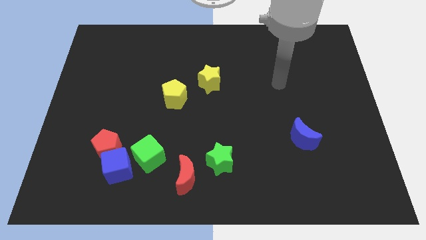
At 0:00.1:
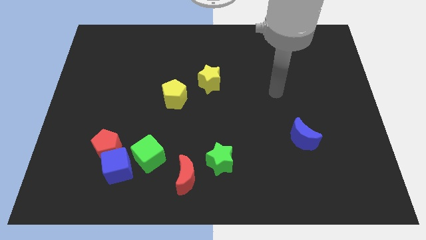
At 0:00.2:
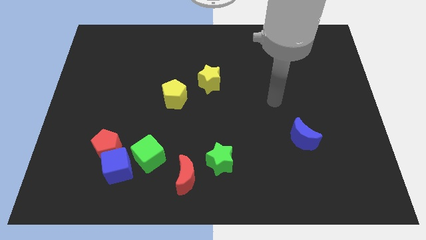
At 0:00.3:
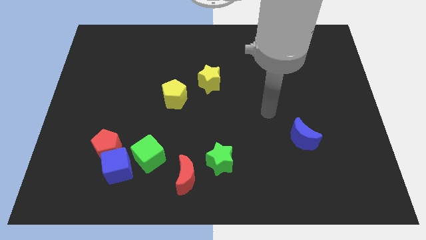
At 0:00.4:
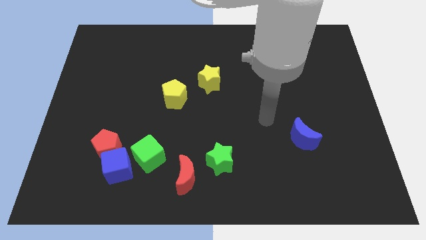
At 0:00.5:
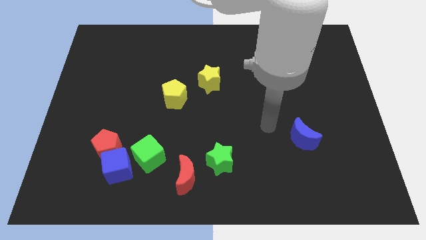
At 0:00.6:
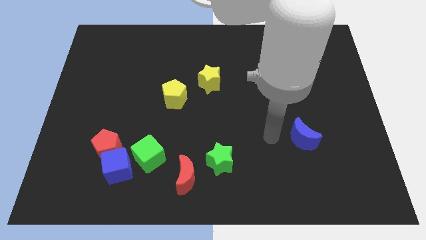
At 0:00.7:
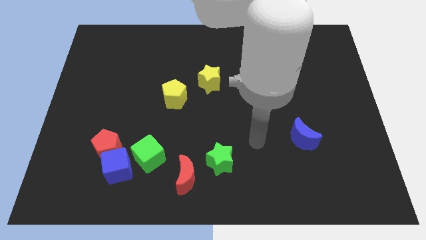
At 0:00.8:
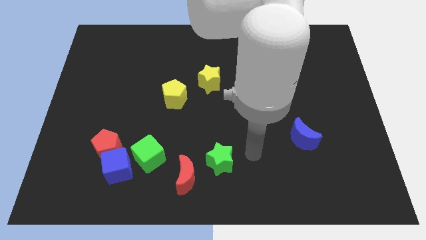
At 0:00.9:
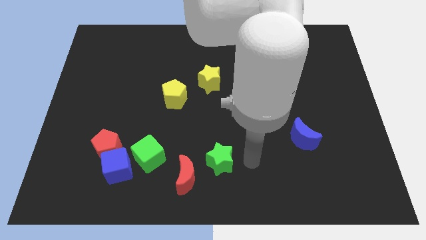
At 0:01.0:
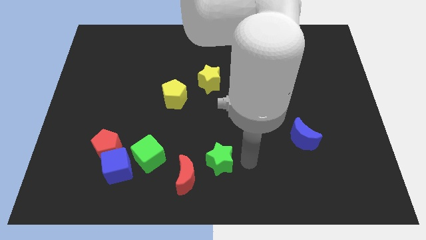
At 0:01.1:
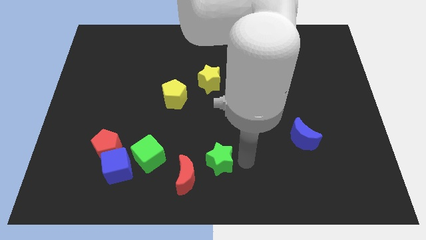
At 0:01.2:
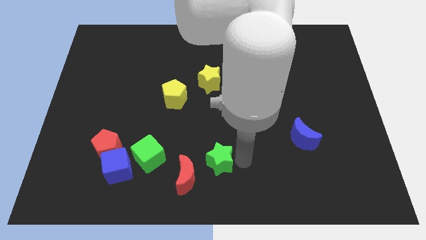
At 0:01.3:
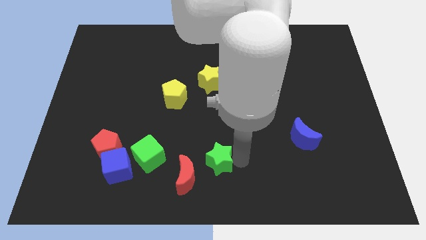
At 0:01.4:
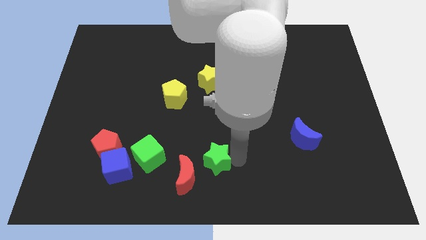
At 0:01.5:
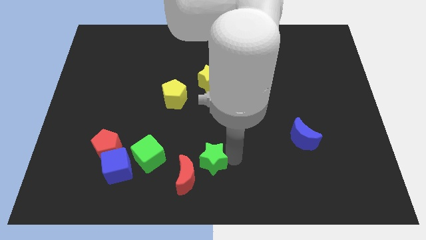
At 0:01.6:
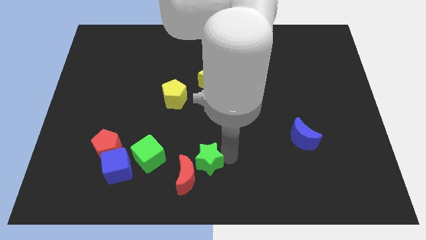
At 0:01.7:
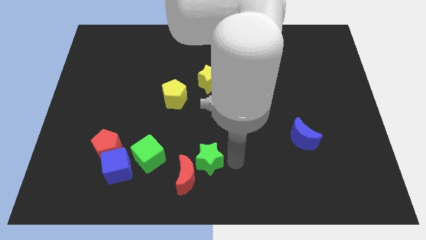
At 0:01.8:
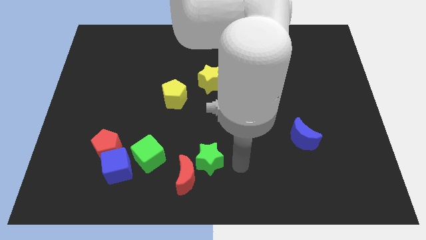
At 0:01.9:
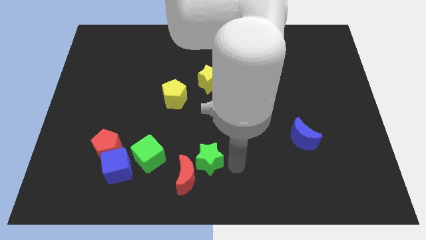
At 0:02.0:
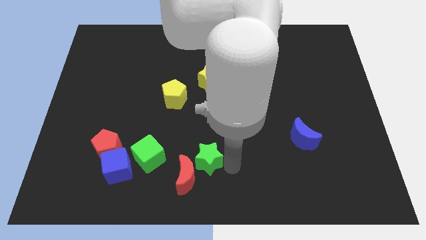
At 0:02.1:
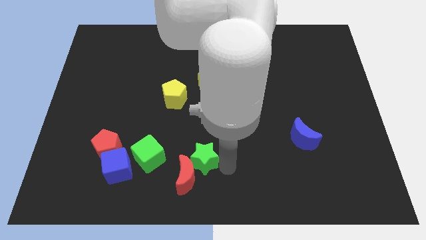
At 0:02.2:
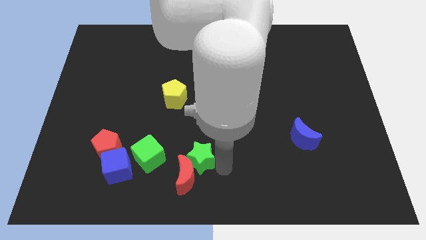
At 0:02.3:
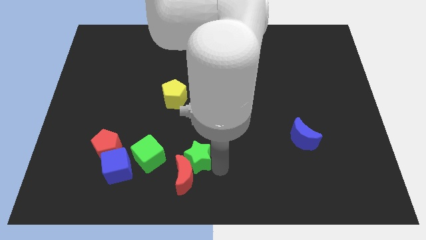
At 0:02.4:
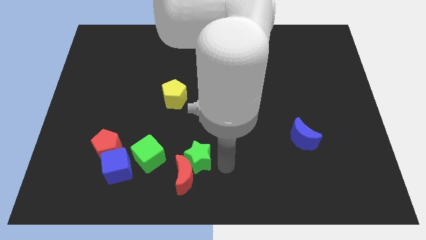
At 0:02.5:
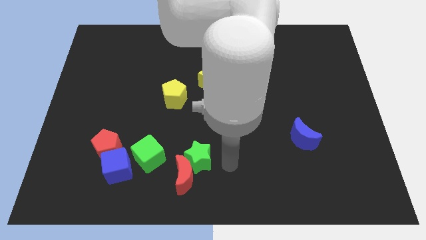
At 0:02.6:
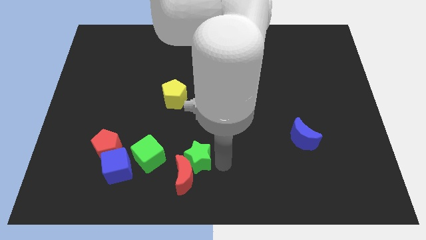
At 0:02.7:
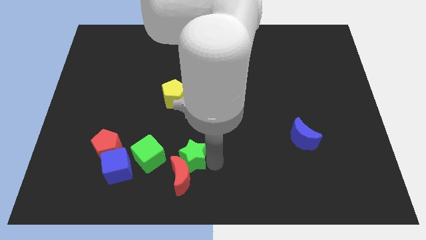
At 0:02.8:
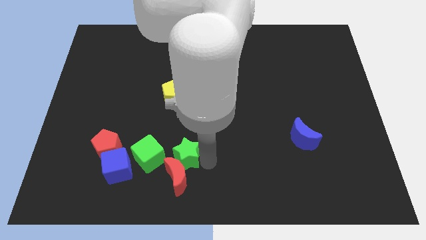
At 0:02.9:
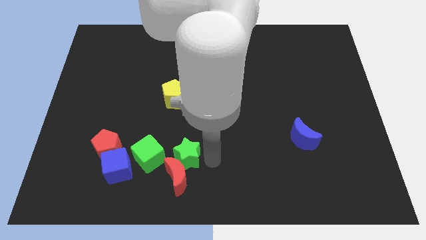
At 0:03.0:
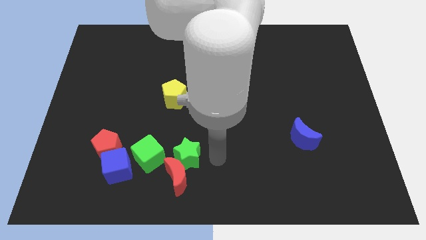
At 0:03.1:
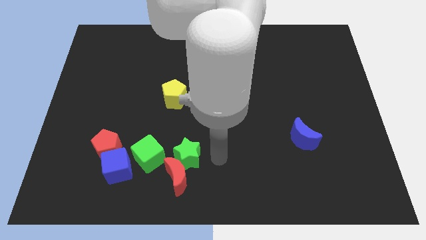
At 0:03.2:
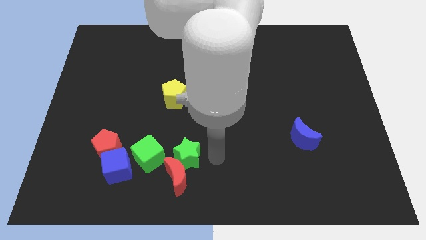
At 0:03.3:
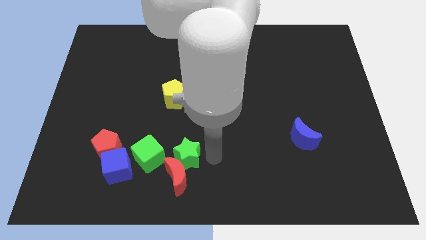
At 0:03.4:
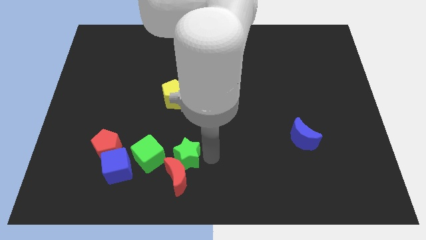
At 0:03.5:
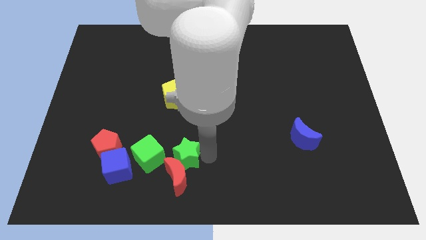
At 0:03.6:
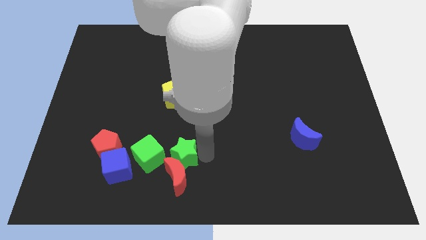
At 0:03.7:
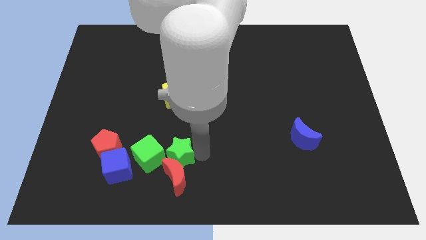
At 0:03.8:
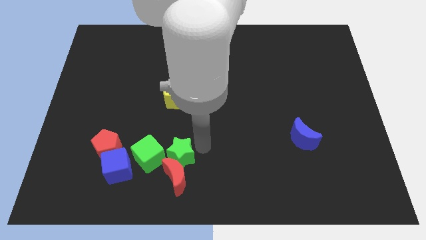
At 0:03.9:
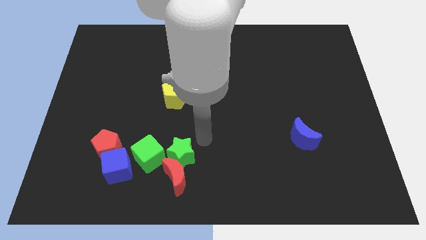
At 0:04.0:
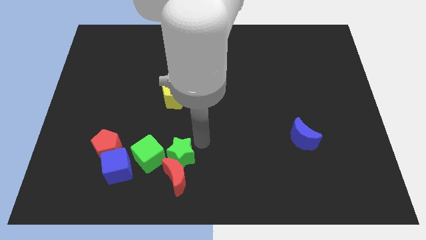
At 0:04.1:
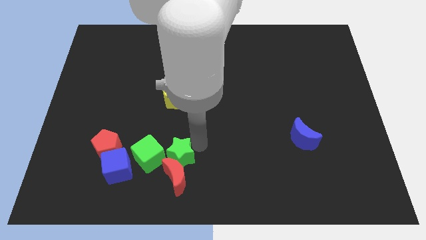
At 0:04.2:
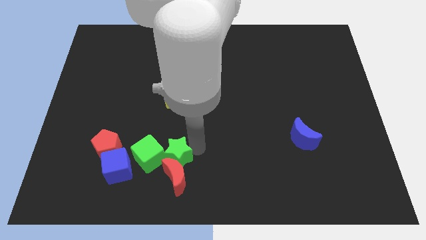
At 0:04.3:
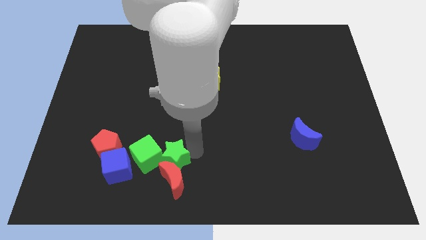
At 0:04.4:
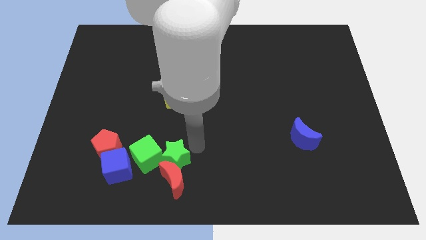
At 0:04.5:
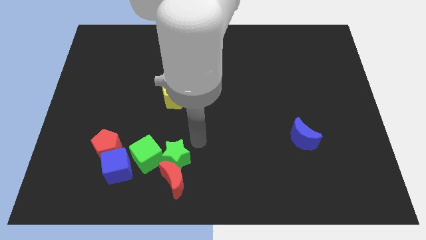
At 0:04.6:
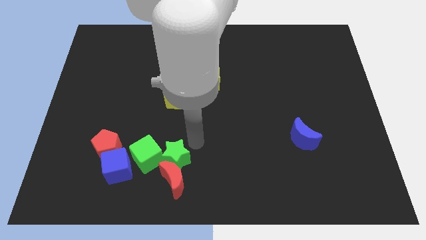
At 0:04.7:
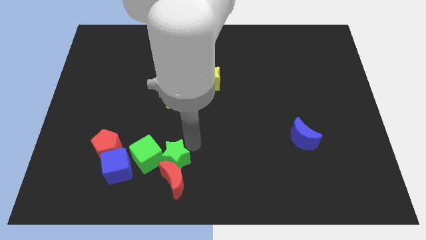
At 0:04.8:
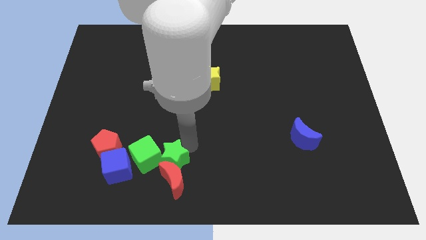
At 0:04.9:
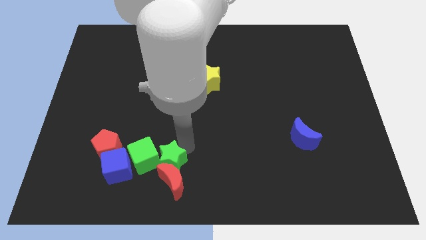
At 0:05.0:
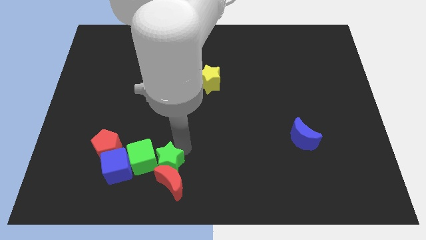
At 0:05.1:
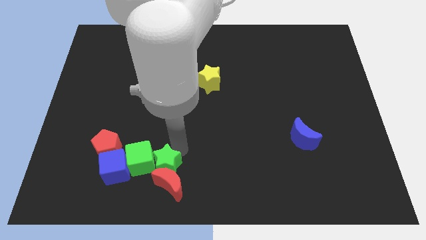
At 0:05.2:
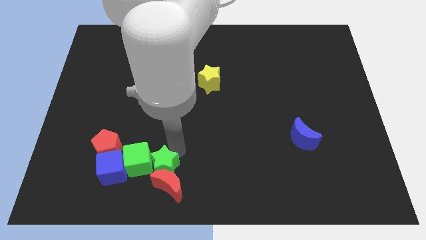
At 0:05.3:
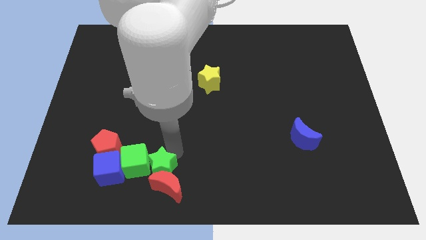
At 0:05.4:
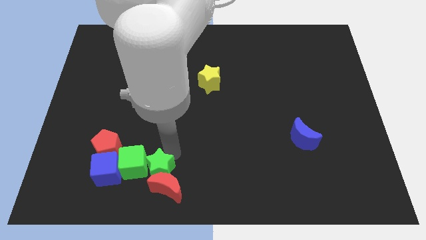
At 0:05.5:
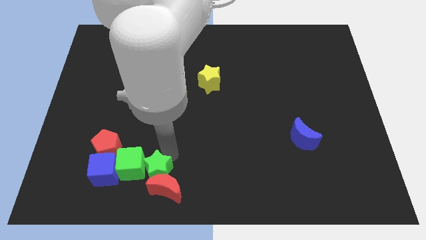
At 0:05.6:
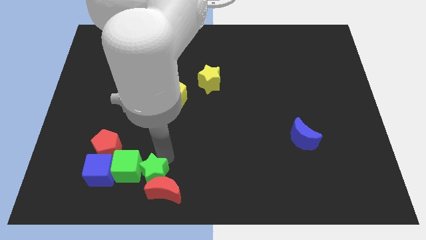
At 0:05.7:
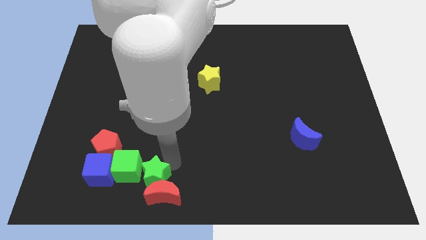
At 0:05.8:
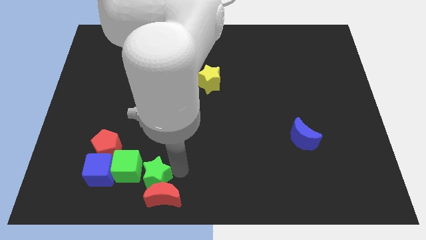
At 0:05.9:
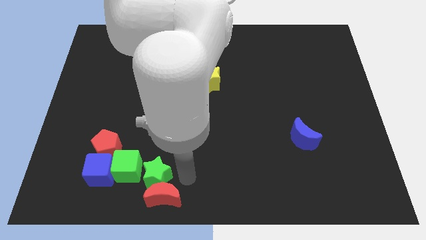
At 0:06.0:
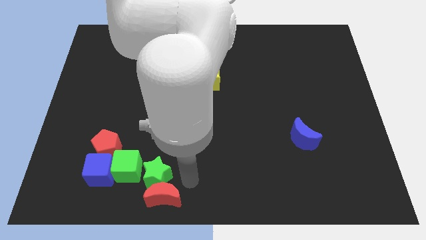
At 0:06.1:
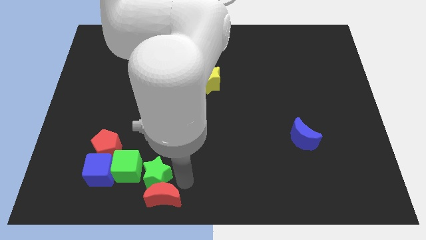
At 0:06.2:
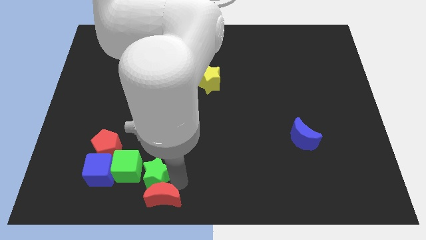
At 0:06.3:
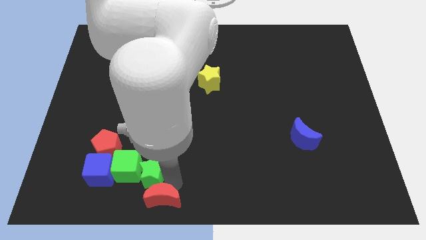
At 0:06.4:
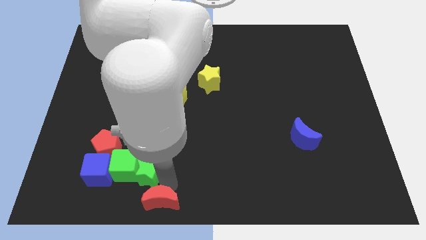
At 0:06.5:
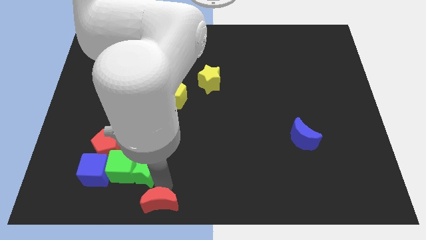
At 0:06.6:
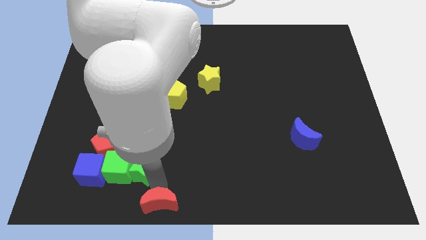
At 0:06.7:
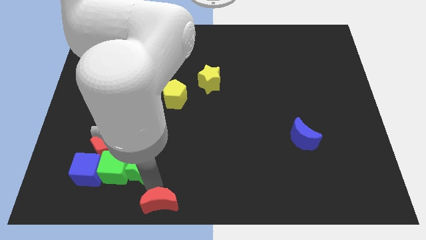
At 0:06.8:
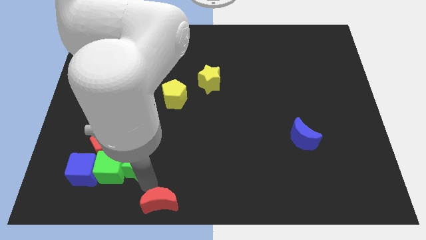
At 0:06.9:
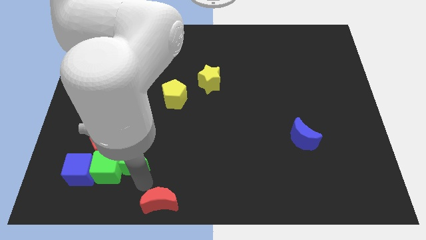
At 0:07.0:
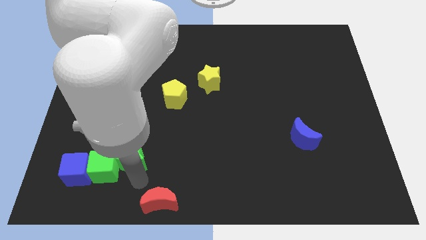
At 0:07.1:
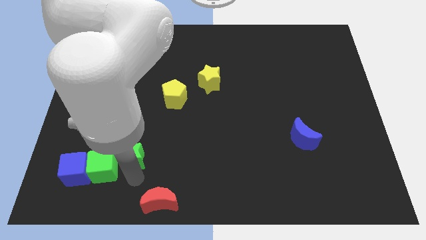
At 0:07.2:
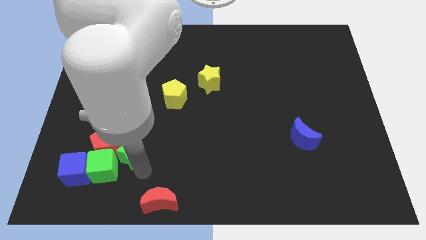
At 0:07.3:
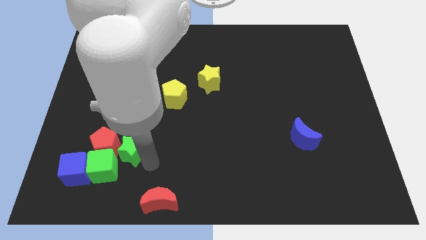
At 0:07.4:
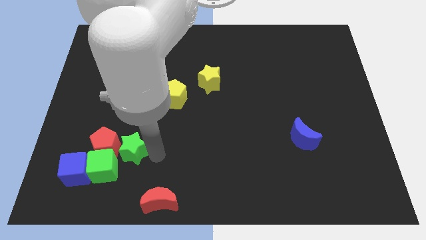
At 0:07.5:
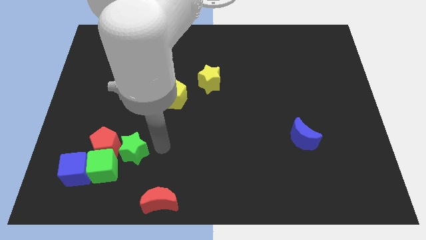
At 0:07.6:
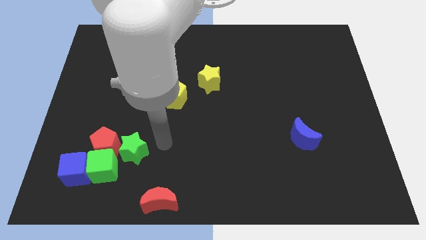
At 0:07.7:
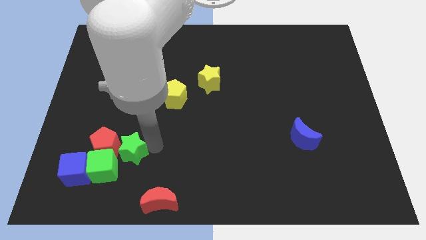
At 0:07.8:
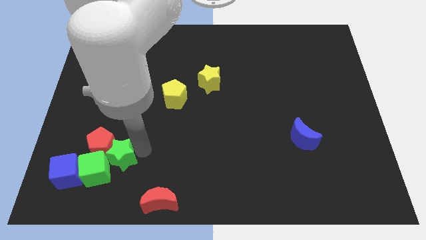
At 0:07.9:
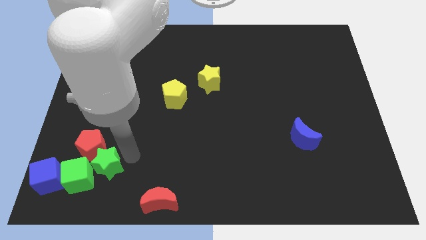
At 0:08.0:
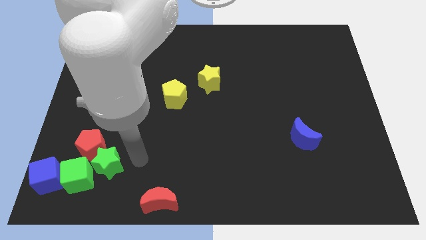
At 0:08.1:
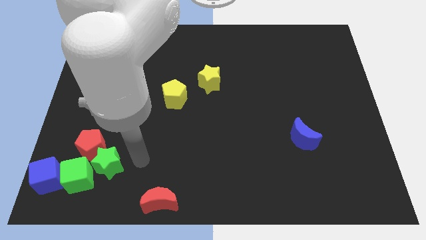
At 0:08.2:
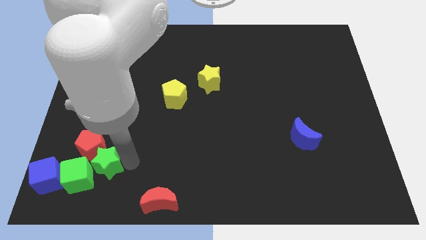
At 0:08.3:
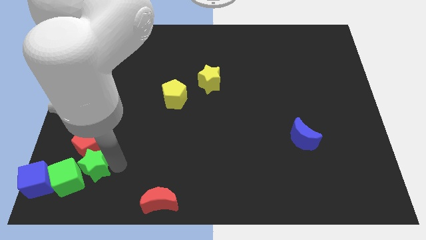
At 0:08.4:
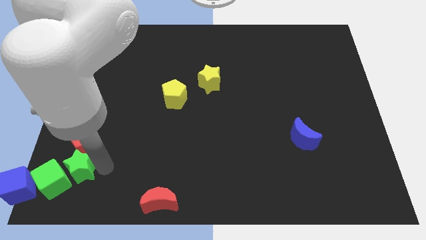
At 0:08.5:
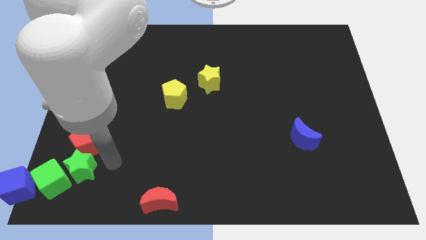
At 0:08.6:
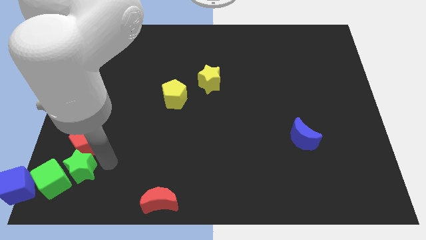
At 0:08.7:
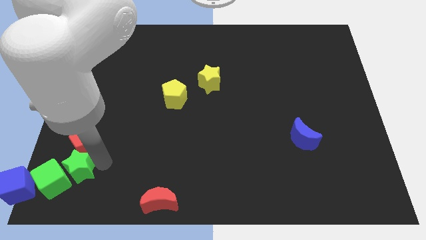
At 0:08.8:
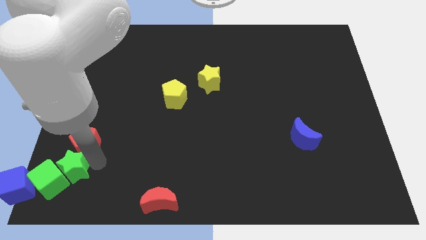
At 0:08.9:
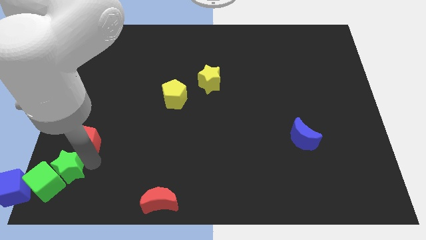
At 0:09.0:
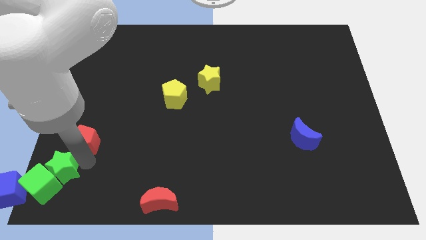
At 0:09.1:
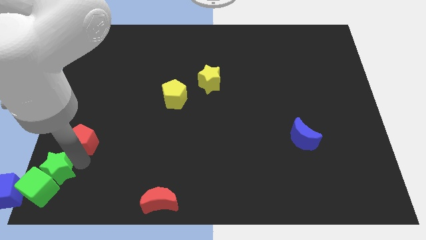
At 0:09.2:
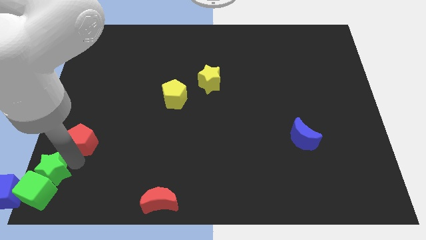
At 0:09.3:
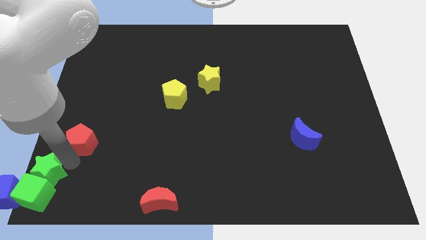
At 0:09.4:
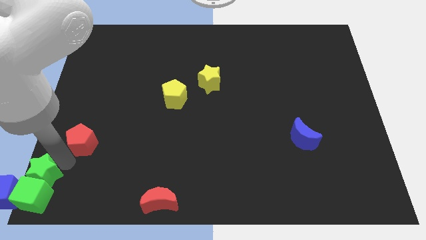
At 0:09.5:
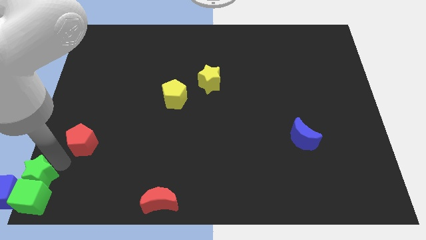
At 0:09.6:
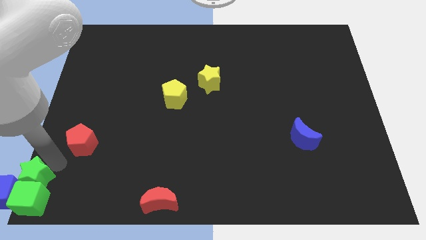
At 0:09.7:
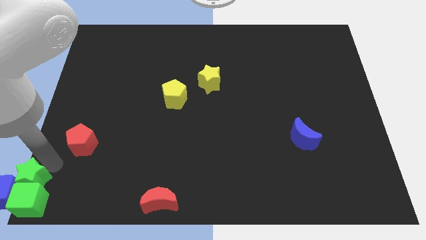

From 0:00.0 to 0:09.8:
move the green star towards the blue cube
